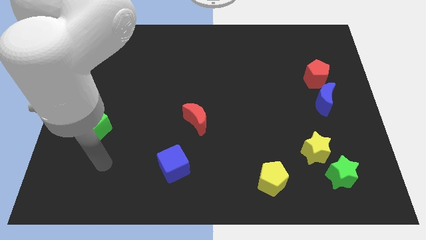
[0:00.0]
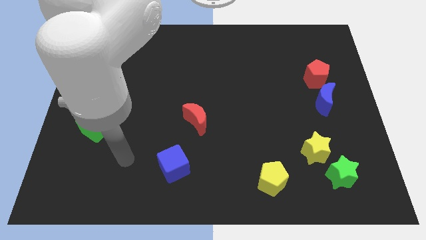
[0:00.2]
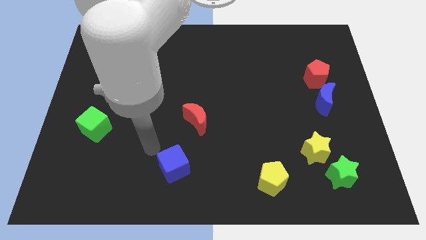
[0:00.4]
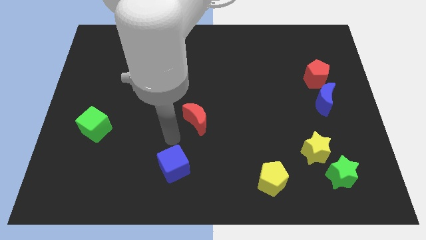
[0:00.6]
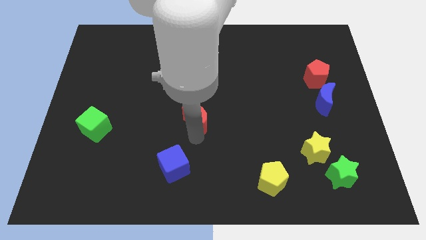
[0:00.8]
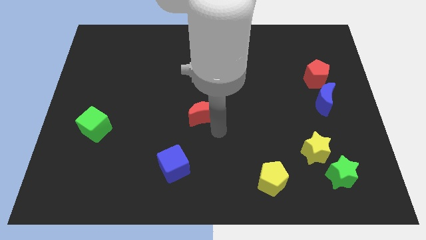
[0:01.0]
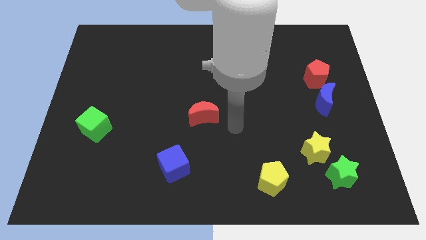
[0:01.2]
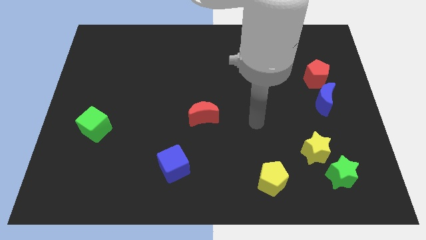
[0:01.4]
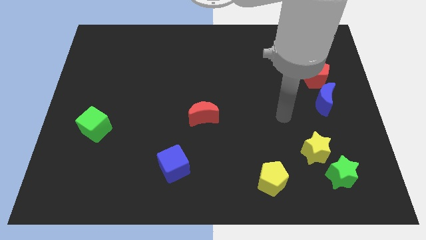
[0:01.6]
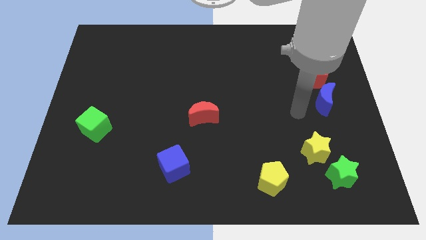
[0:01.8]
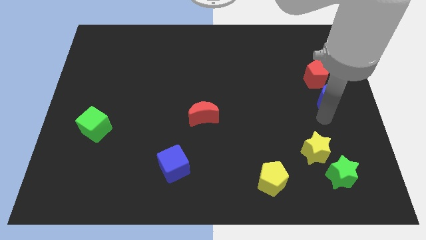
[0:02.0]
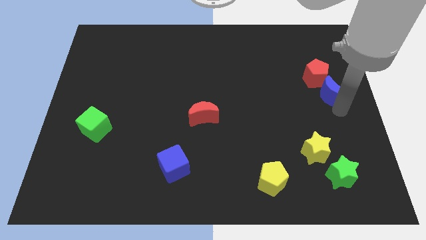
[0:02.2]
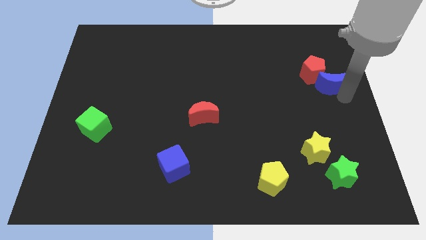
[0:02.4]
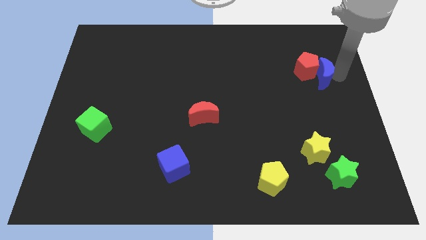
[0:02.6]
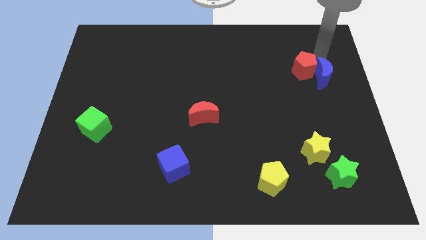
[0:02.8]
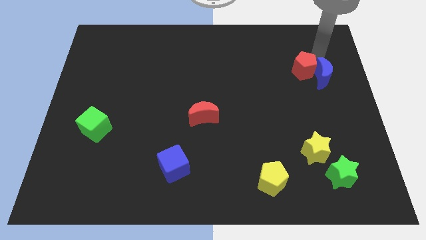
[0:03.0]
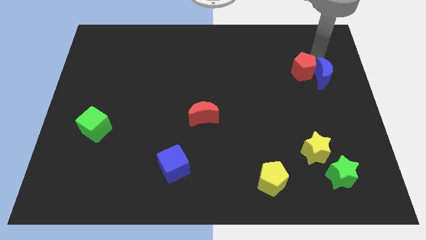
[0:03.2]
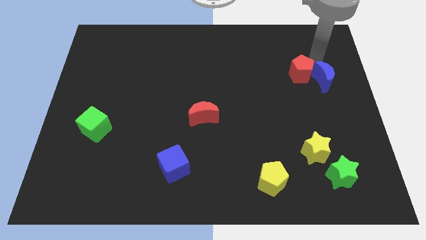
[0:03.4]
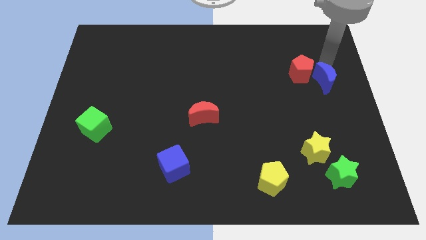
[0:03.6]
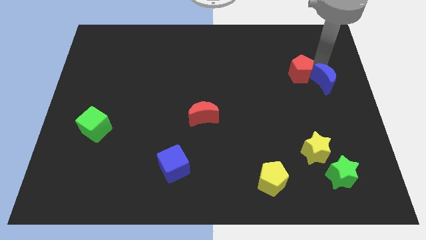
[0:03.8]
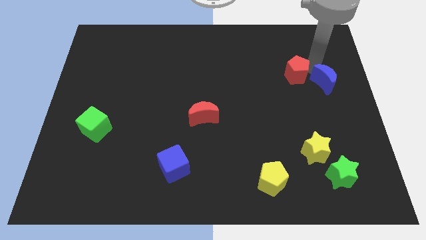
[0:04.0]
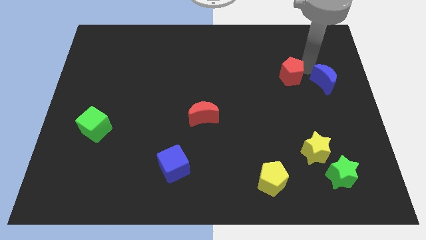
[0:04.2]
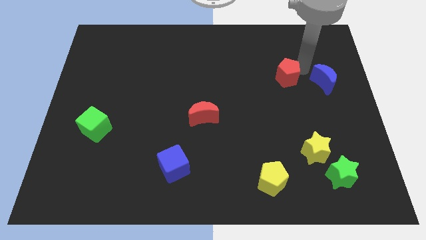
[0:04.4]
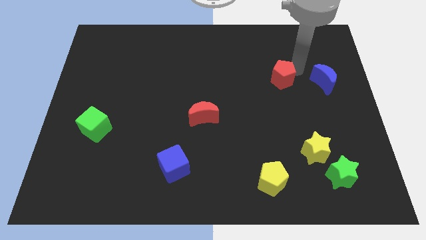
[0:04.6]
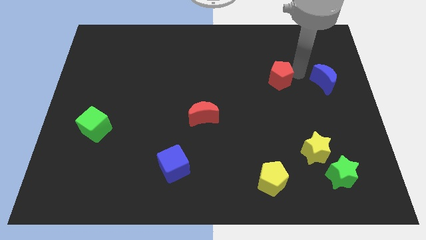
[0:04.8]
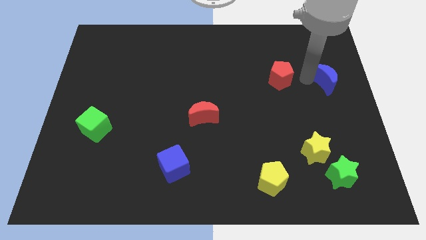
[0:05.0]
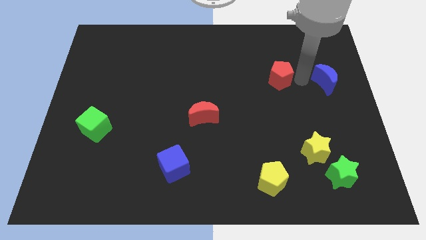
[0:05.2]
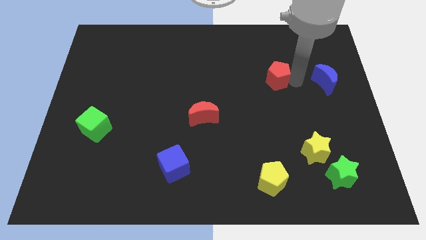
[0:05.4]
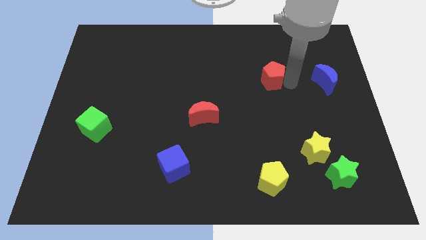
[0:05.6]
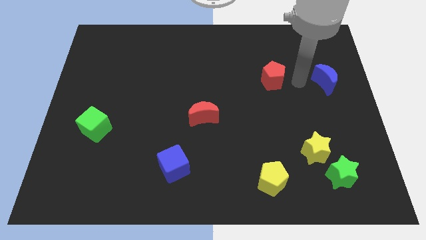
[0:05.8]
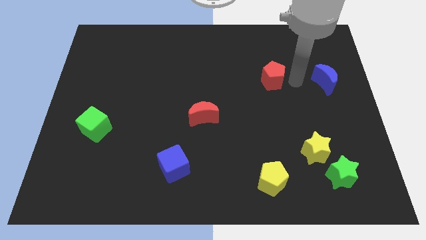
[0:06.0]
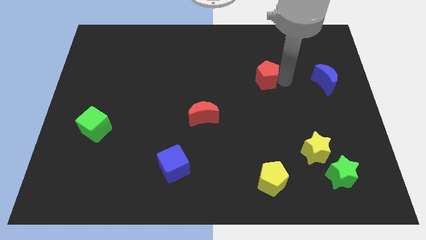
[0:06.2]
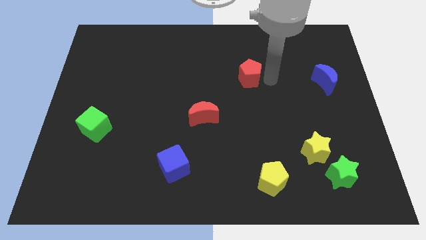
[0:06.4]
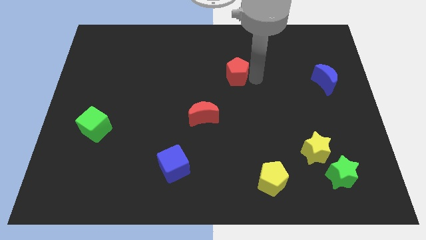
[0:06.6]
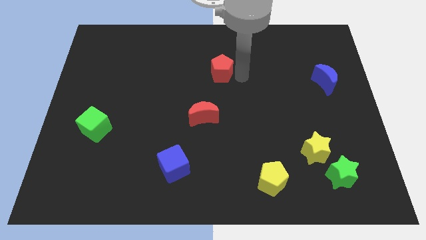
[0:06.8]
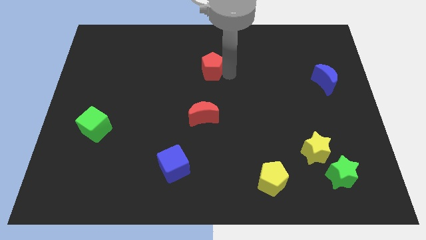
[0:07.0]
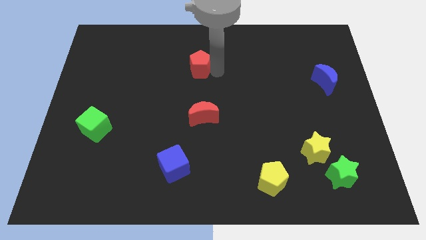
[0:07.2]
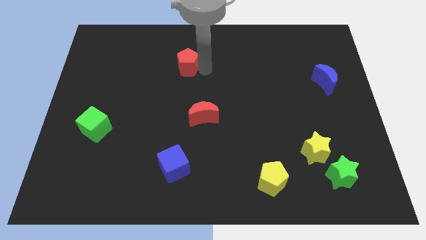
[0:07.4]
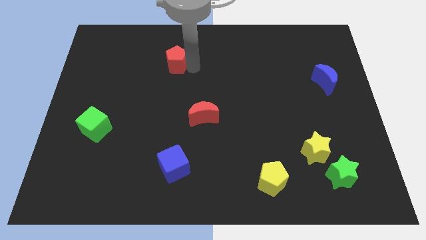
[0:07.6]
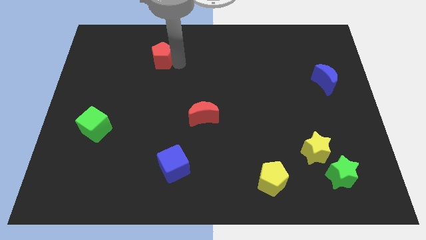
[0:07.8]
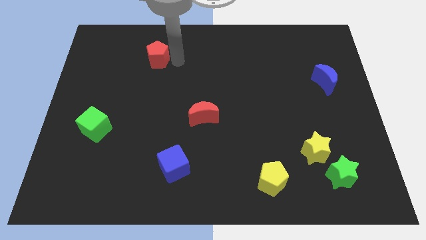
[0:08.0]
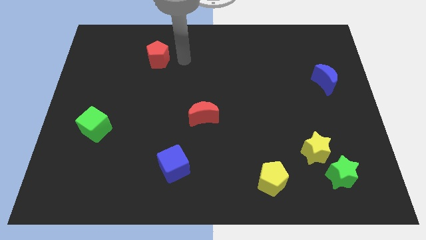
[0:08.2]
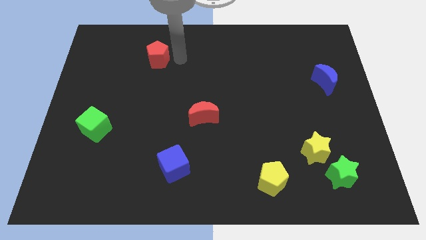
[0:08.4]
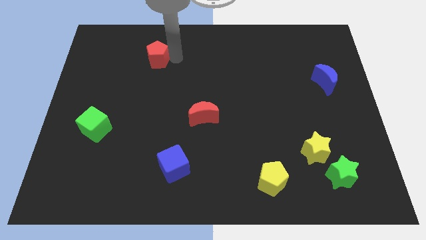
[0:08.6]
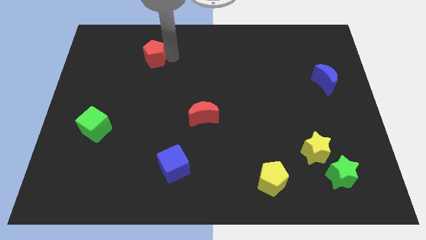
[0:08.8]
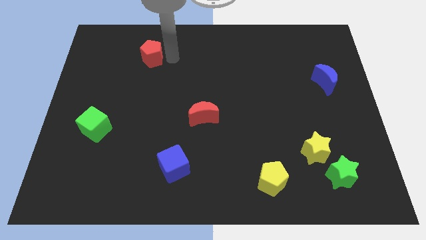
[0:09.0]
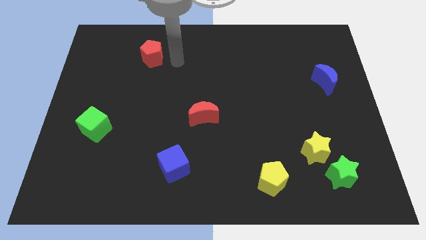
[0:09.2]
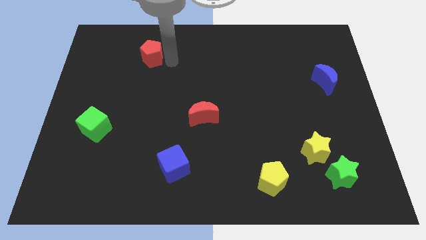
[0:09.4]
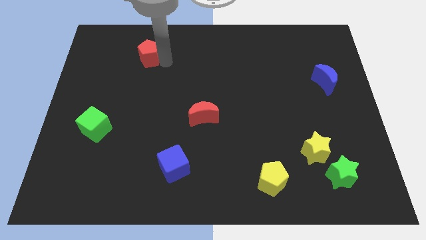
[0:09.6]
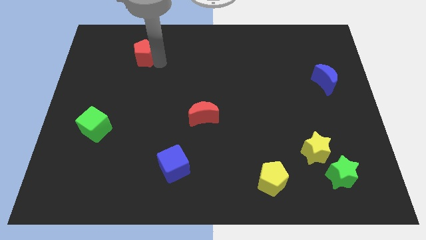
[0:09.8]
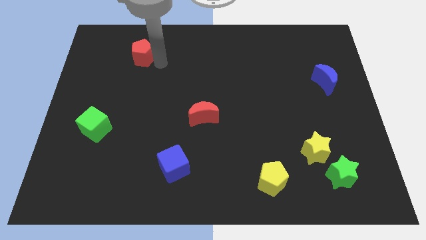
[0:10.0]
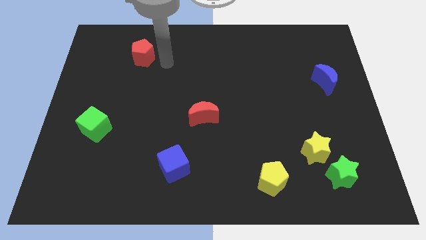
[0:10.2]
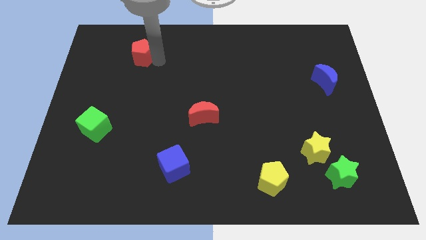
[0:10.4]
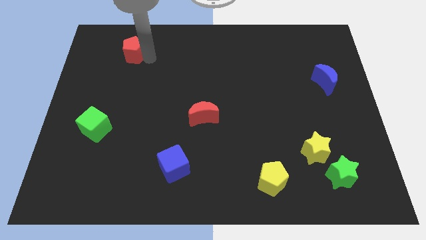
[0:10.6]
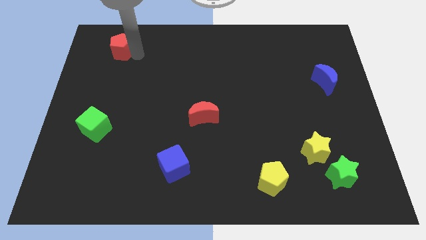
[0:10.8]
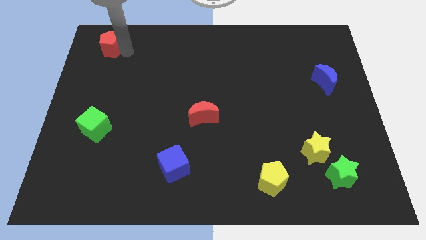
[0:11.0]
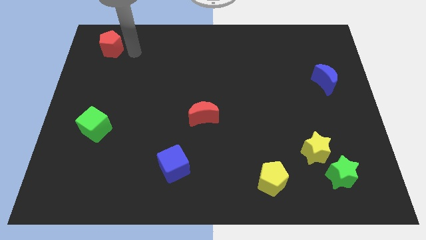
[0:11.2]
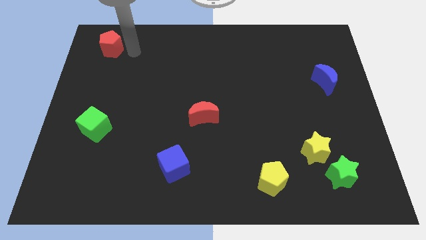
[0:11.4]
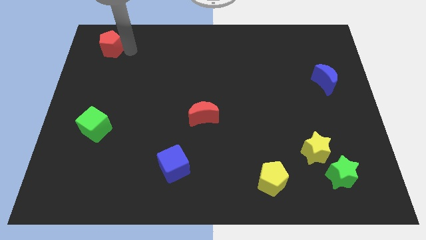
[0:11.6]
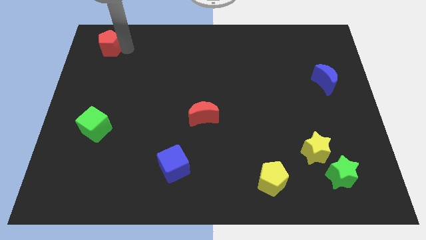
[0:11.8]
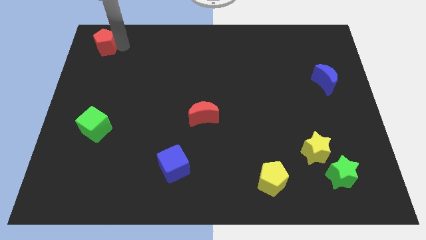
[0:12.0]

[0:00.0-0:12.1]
slide the red pentagon to the top left

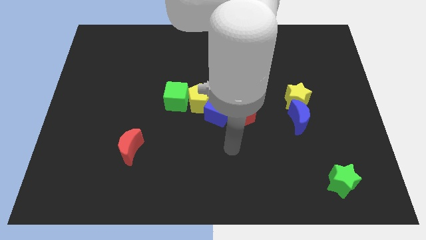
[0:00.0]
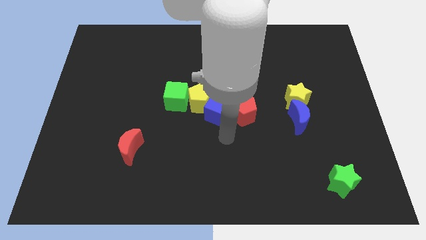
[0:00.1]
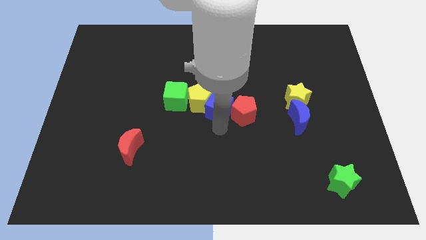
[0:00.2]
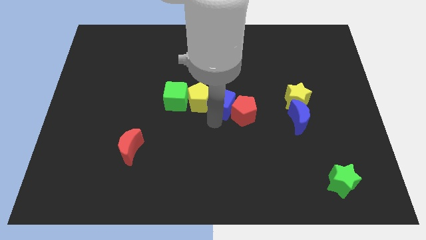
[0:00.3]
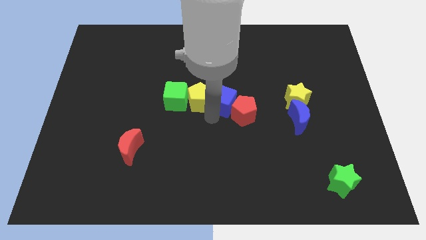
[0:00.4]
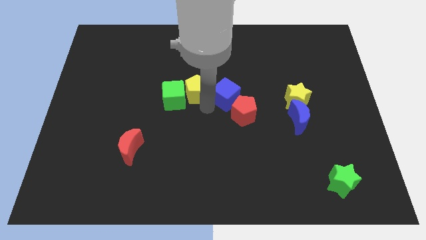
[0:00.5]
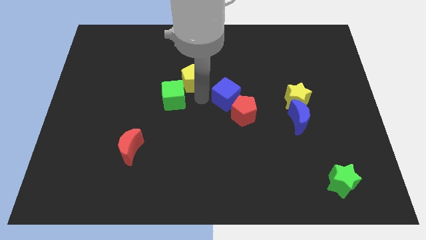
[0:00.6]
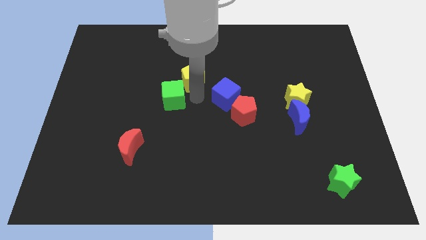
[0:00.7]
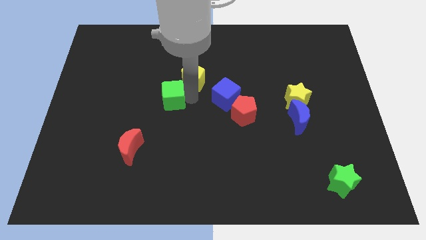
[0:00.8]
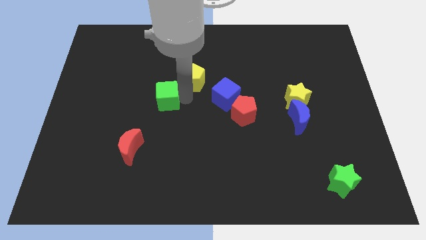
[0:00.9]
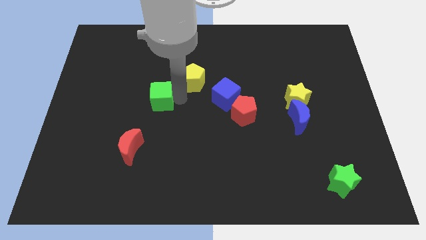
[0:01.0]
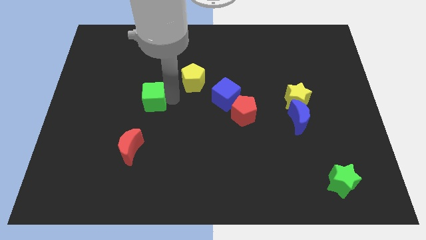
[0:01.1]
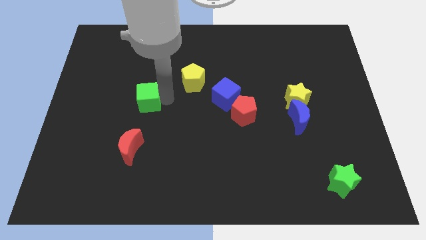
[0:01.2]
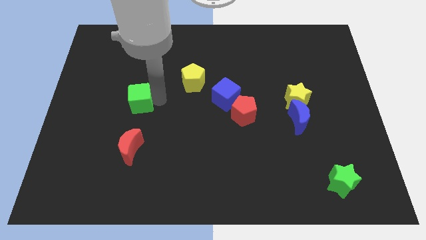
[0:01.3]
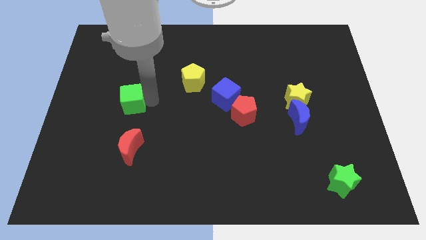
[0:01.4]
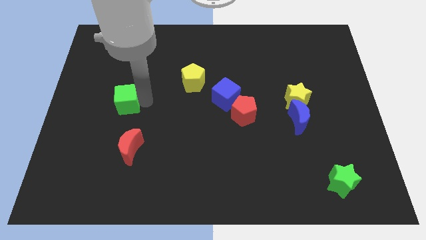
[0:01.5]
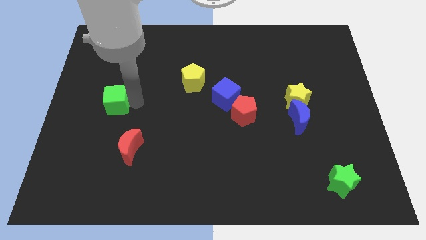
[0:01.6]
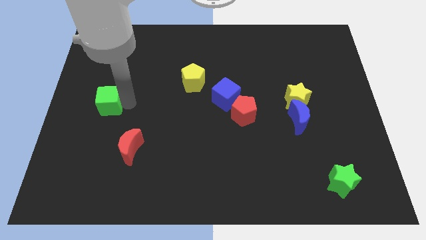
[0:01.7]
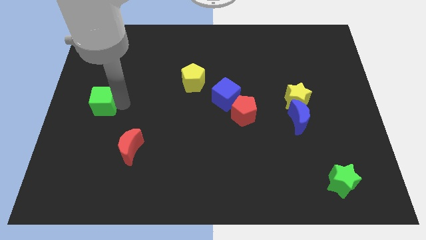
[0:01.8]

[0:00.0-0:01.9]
move the green cube to the center left
